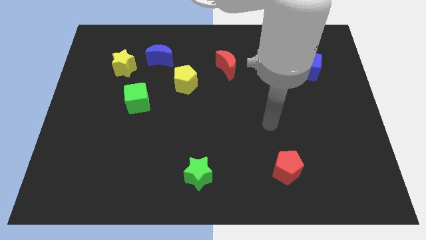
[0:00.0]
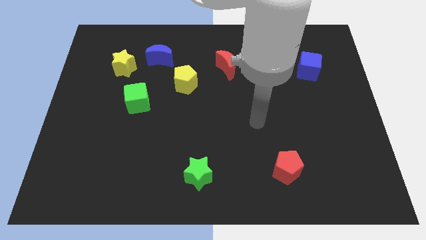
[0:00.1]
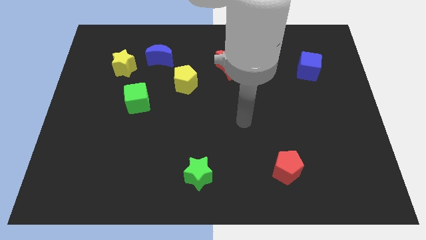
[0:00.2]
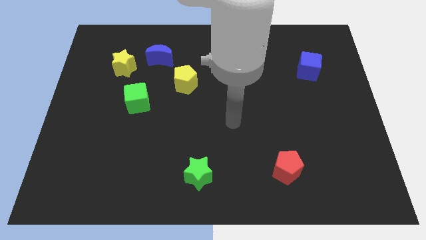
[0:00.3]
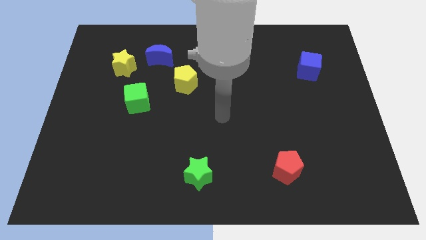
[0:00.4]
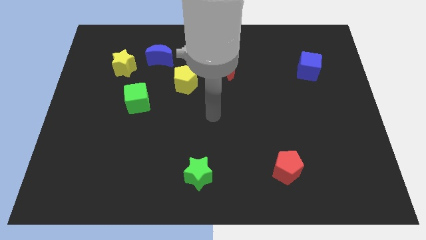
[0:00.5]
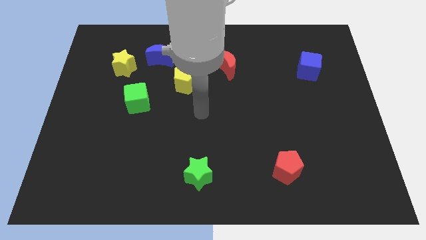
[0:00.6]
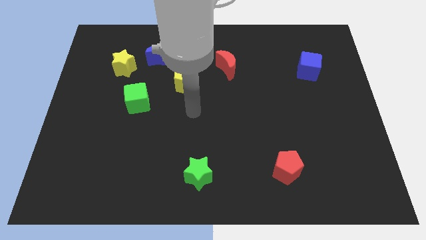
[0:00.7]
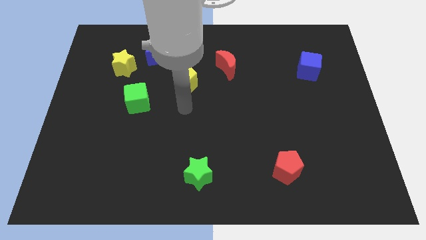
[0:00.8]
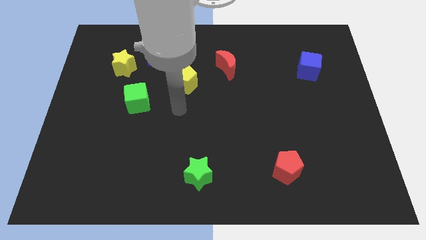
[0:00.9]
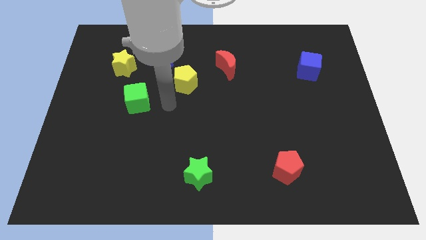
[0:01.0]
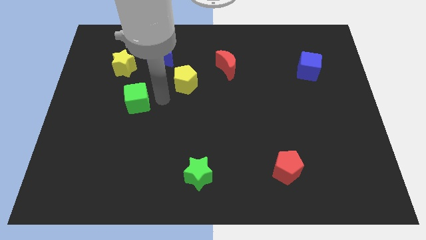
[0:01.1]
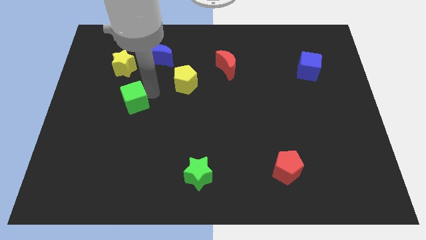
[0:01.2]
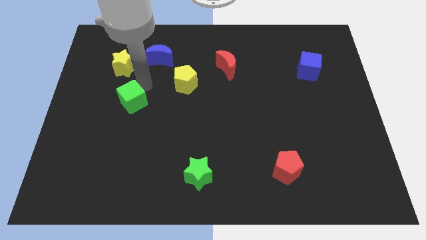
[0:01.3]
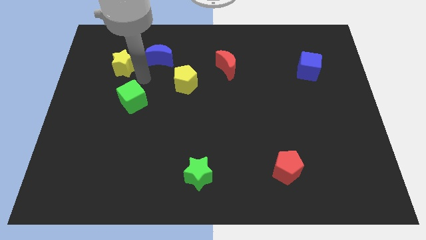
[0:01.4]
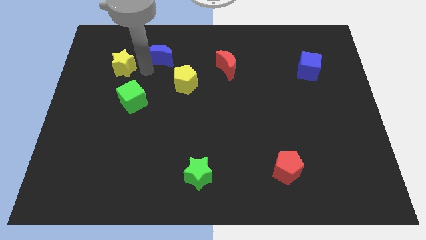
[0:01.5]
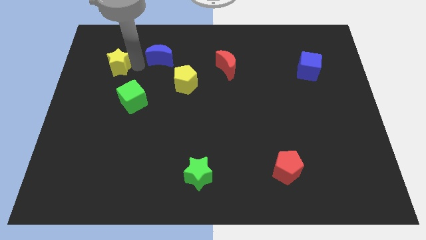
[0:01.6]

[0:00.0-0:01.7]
move the blue moon away from the yellow star

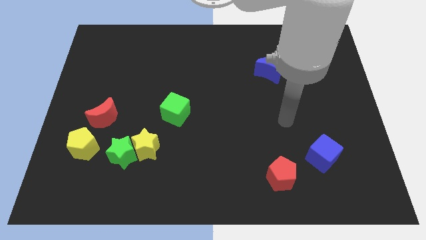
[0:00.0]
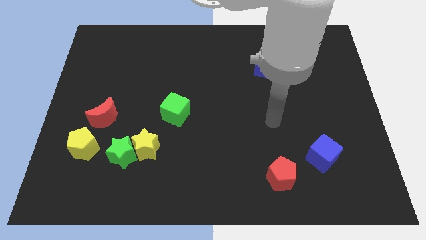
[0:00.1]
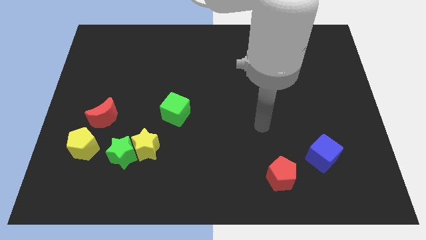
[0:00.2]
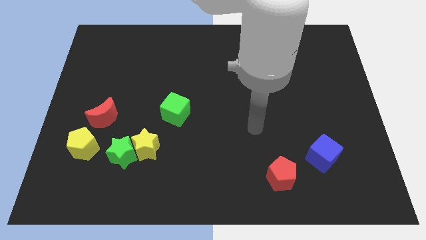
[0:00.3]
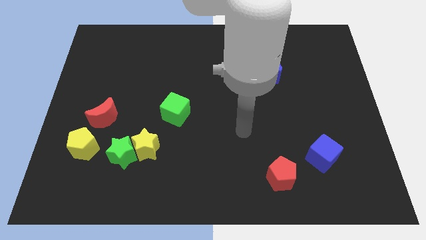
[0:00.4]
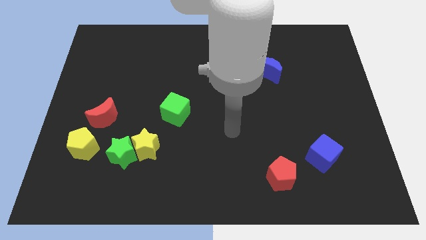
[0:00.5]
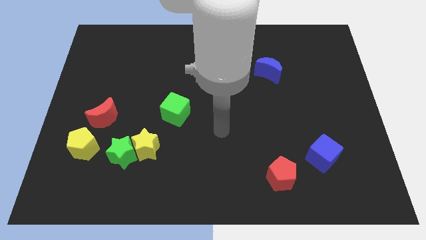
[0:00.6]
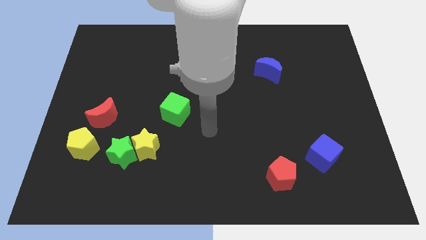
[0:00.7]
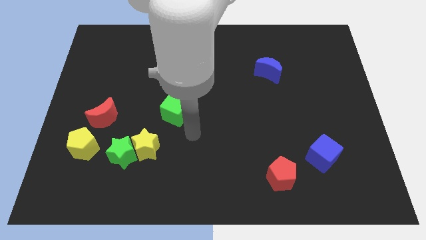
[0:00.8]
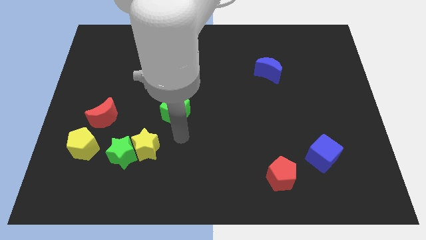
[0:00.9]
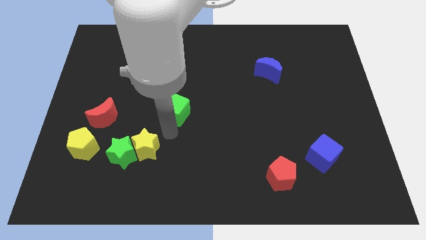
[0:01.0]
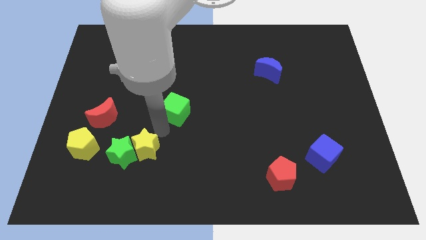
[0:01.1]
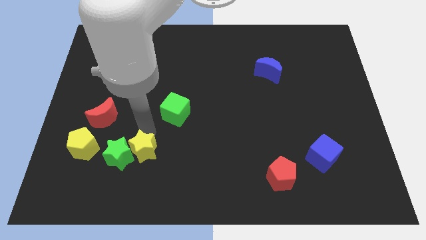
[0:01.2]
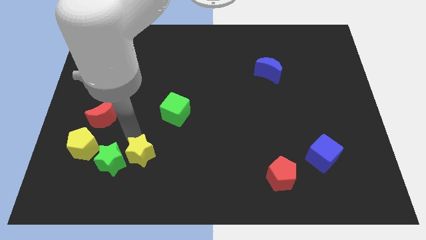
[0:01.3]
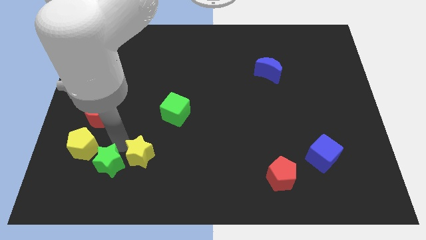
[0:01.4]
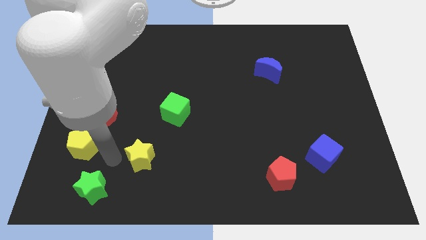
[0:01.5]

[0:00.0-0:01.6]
move the yellow star away from the green star

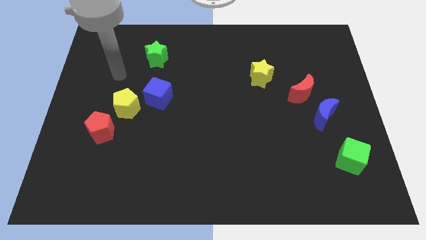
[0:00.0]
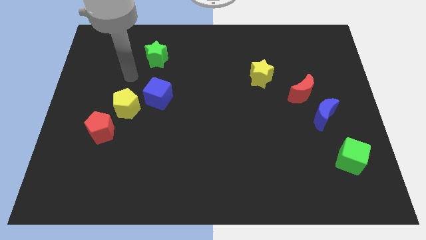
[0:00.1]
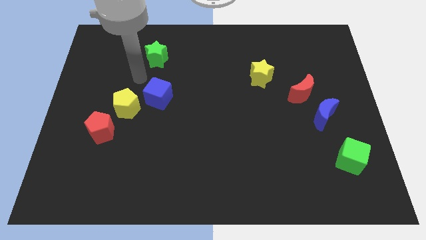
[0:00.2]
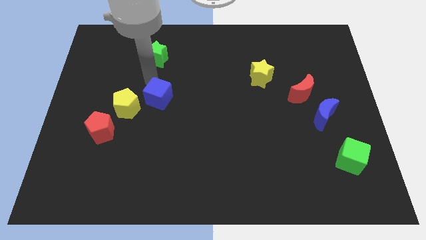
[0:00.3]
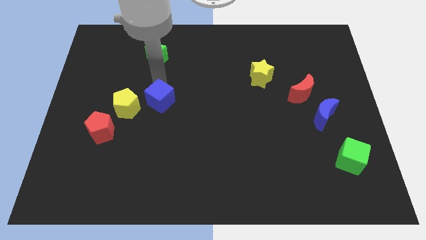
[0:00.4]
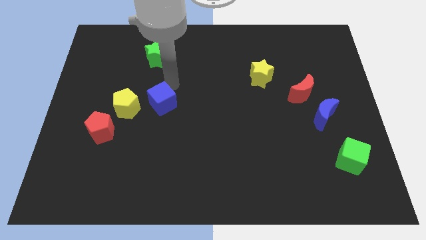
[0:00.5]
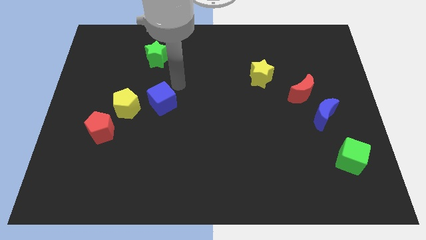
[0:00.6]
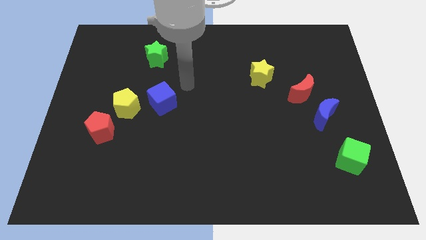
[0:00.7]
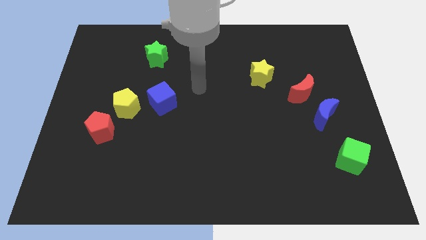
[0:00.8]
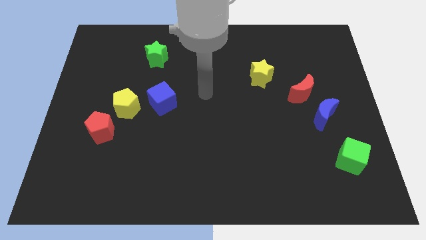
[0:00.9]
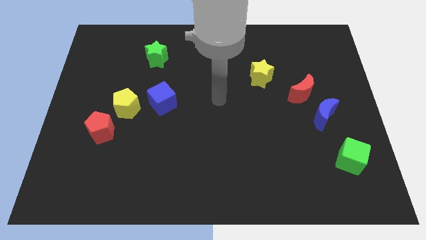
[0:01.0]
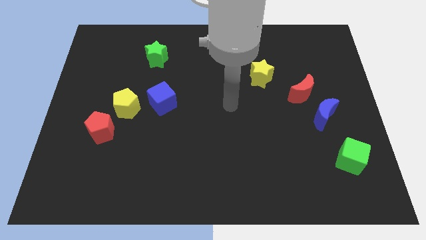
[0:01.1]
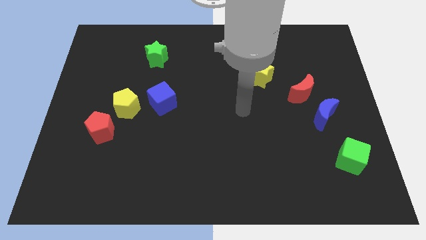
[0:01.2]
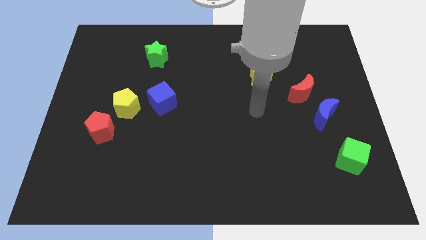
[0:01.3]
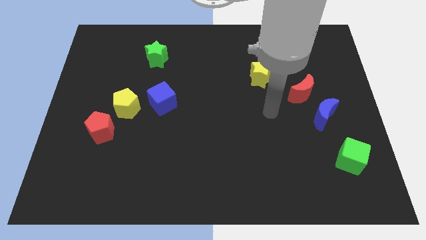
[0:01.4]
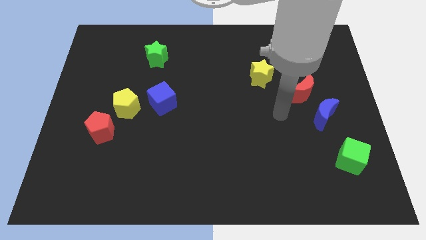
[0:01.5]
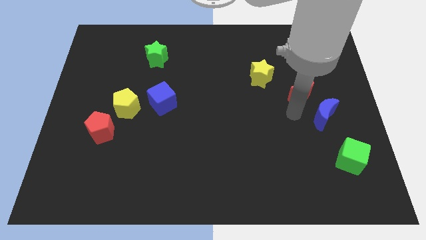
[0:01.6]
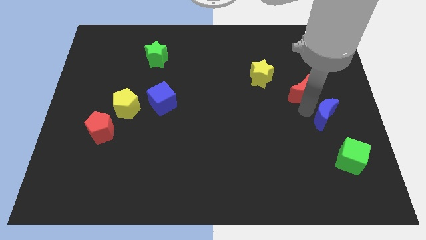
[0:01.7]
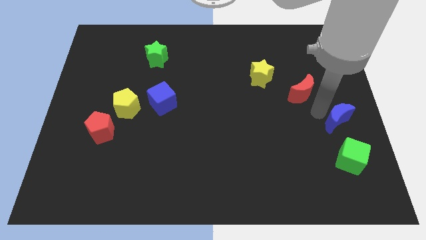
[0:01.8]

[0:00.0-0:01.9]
move the red moon away from the blue moon

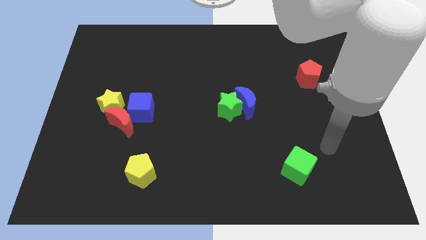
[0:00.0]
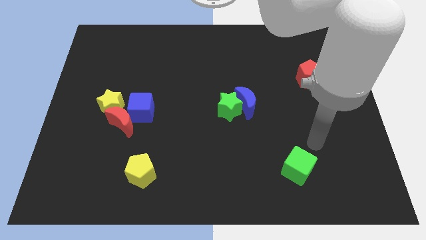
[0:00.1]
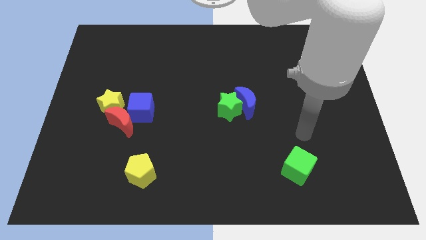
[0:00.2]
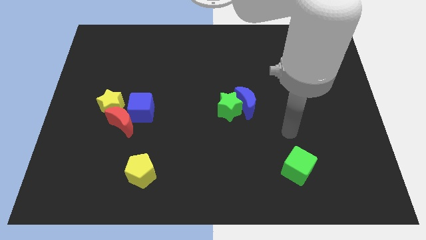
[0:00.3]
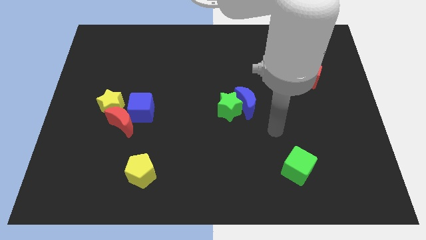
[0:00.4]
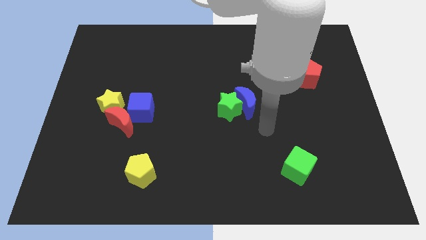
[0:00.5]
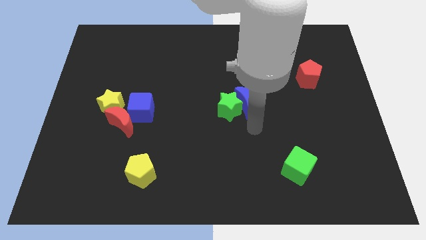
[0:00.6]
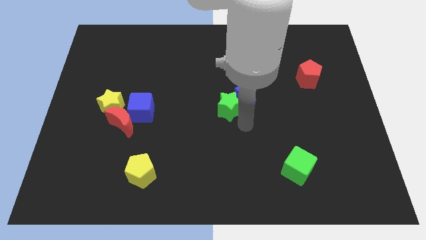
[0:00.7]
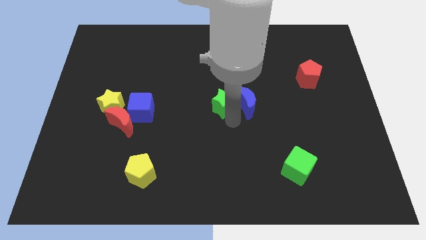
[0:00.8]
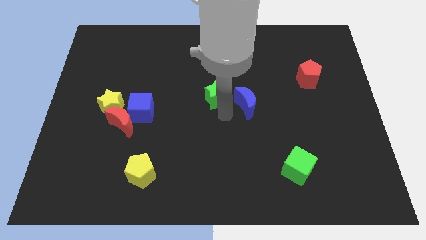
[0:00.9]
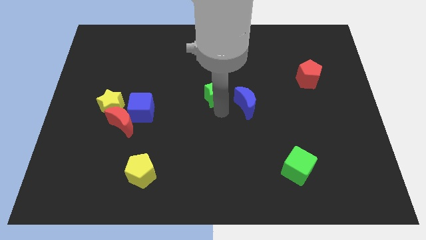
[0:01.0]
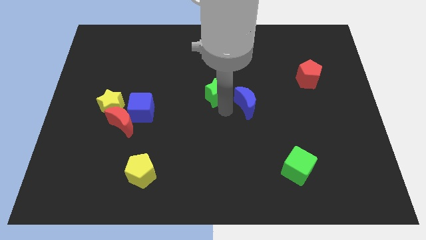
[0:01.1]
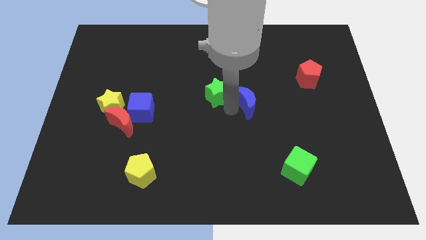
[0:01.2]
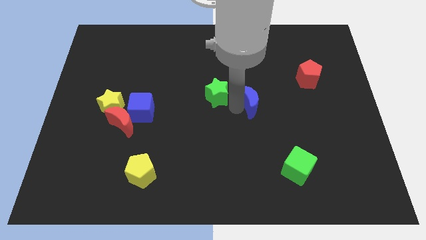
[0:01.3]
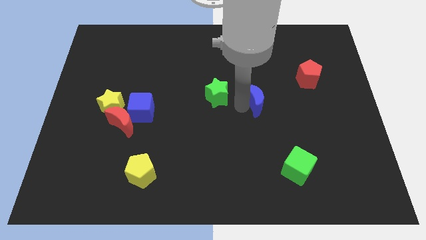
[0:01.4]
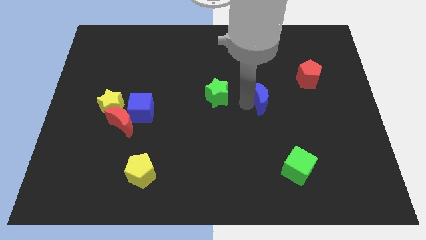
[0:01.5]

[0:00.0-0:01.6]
pull the blue moon apart from the green star

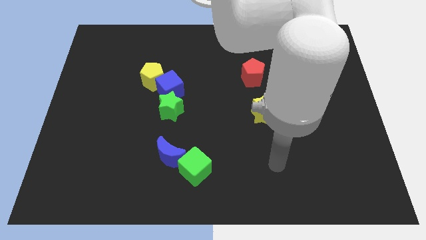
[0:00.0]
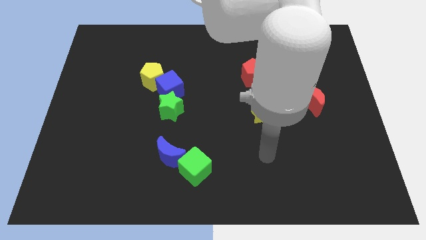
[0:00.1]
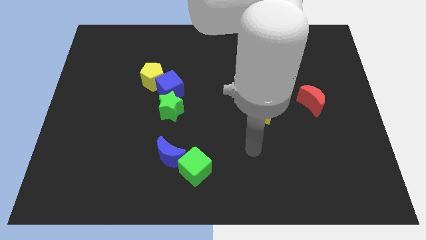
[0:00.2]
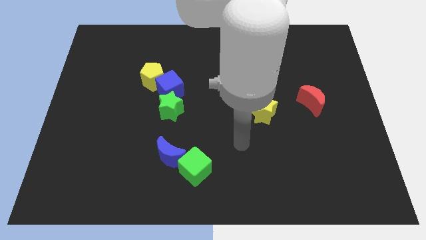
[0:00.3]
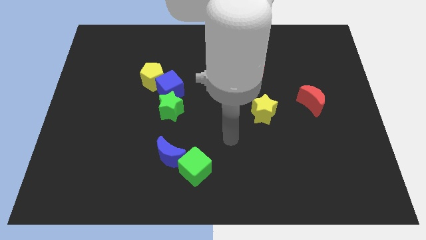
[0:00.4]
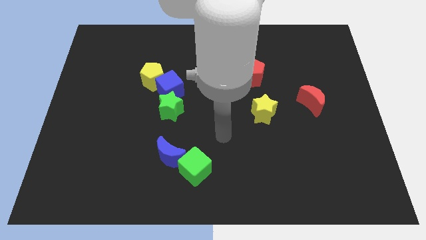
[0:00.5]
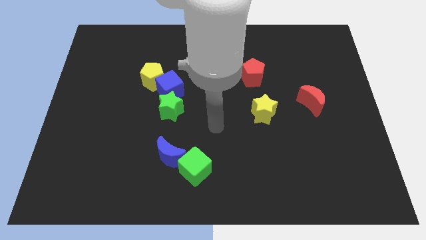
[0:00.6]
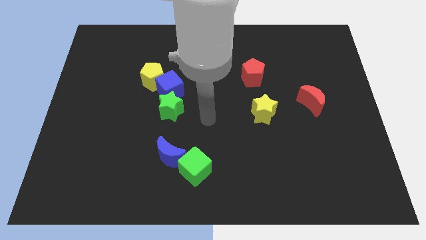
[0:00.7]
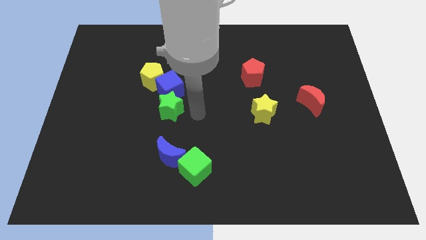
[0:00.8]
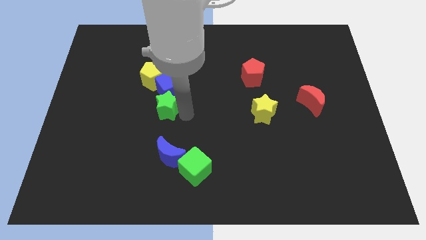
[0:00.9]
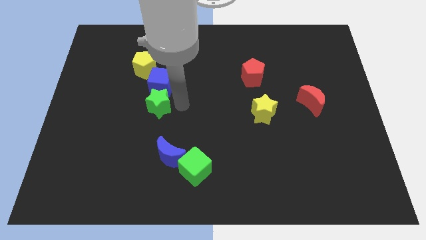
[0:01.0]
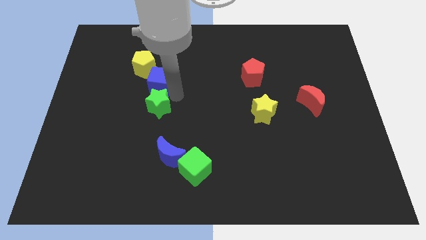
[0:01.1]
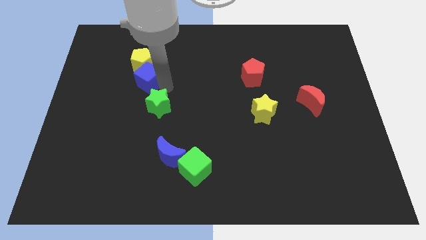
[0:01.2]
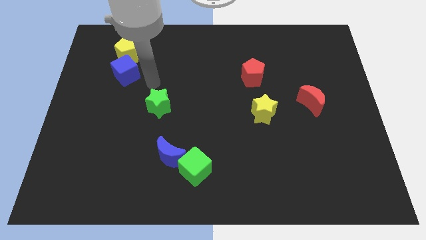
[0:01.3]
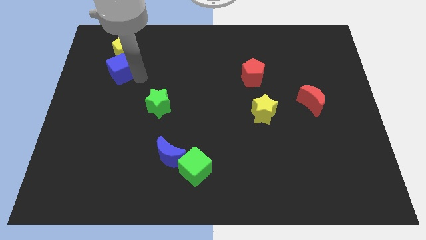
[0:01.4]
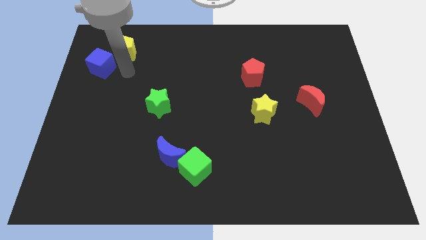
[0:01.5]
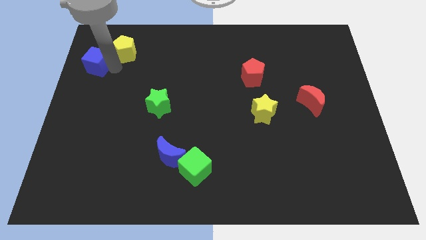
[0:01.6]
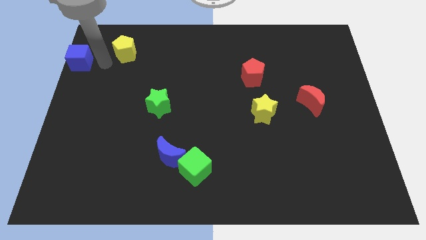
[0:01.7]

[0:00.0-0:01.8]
separate the yellow pentagon from the blue cube

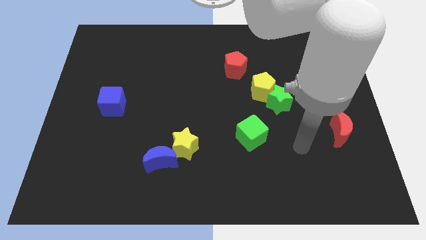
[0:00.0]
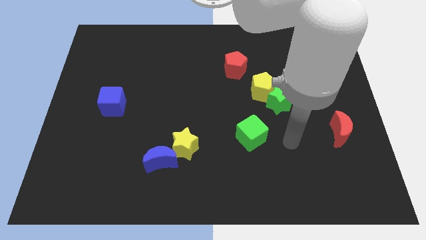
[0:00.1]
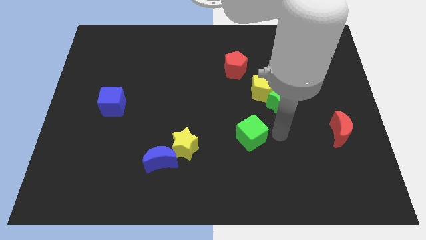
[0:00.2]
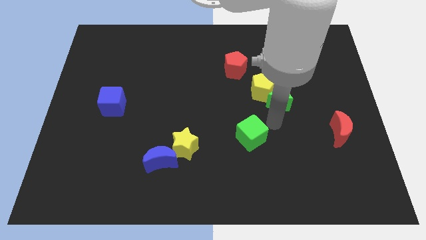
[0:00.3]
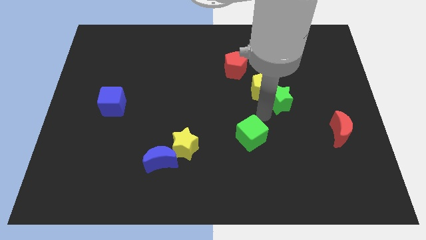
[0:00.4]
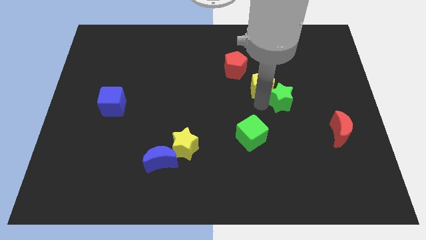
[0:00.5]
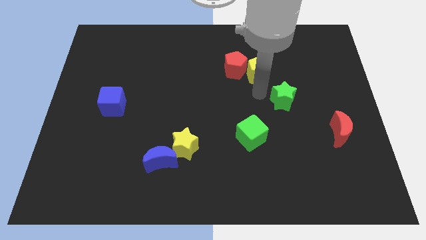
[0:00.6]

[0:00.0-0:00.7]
pull the green star apart from the yellow pentagon

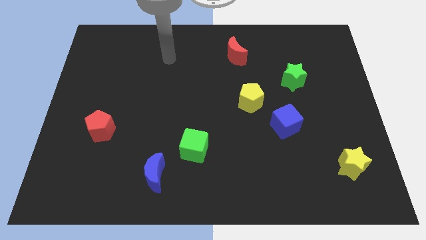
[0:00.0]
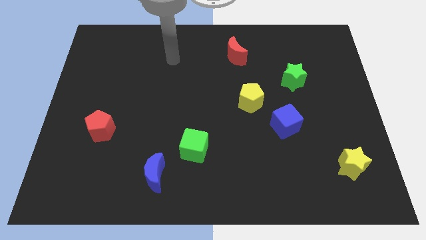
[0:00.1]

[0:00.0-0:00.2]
pull the blue moon apart from the green cube
